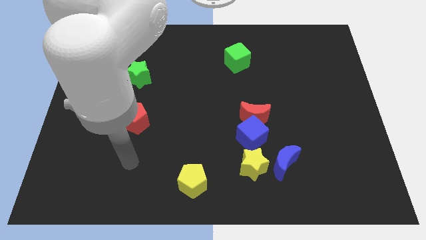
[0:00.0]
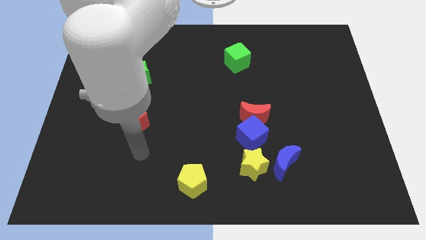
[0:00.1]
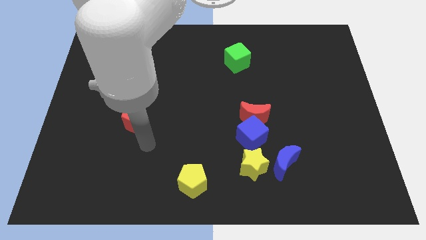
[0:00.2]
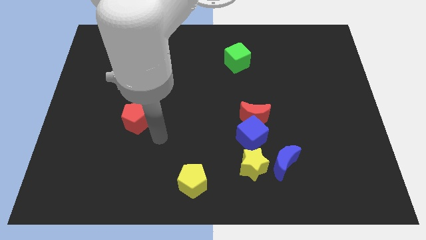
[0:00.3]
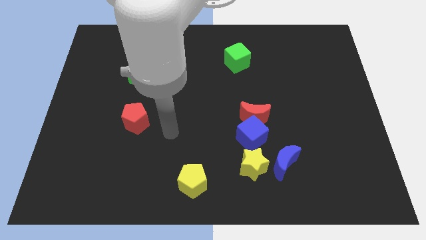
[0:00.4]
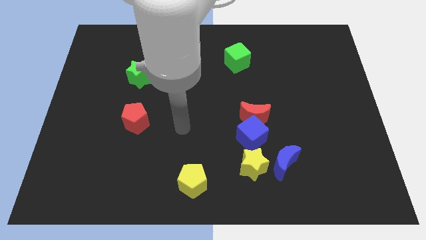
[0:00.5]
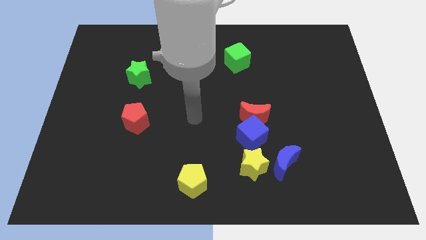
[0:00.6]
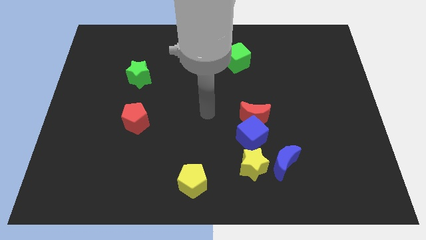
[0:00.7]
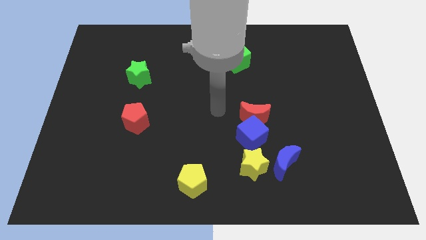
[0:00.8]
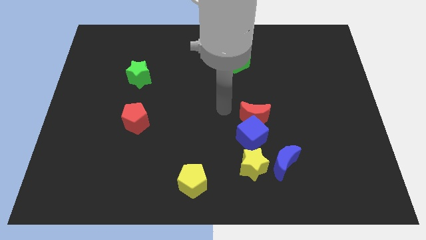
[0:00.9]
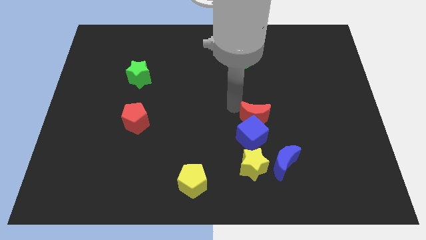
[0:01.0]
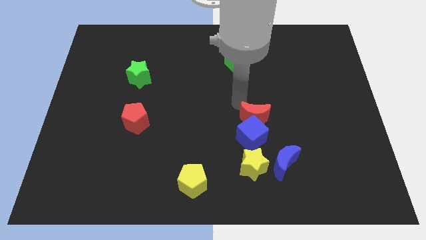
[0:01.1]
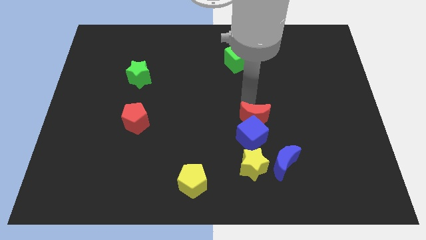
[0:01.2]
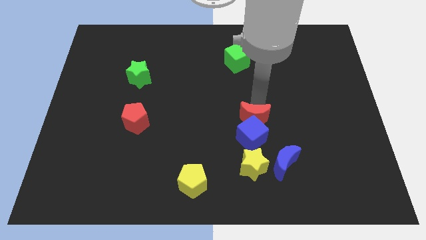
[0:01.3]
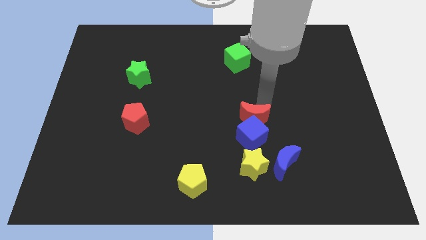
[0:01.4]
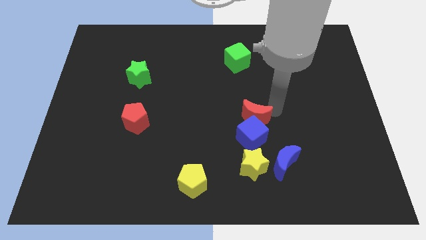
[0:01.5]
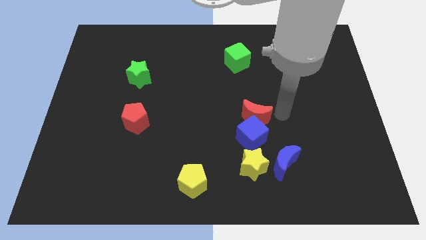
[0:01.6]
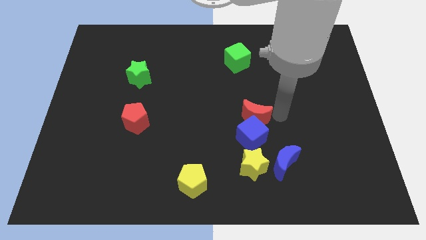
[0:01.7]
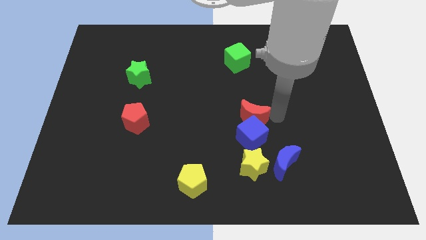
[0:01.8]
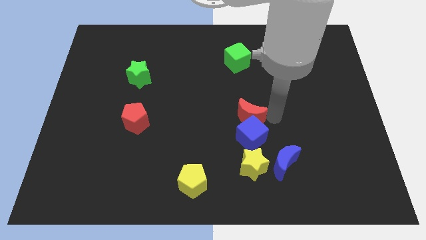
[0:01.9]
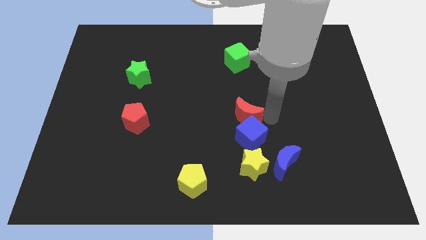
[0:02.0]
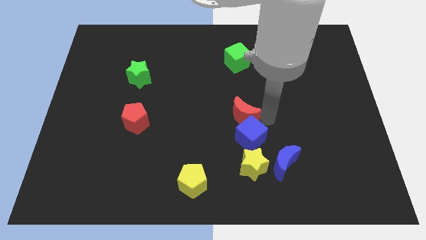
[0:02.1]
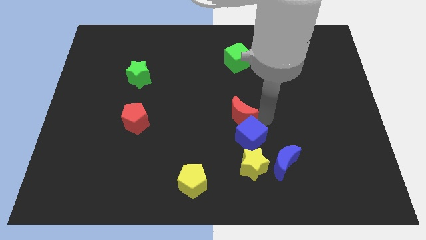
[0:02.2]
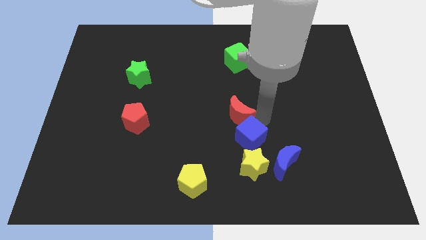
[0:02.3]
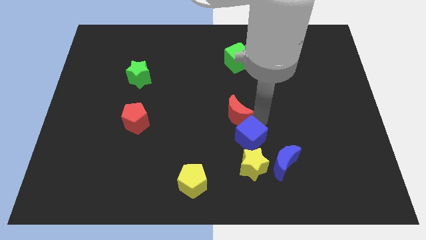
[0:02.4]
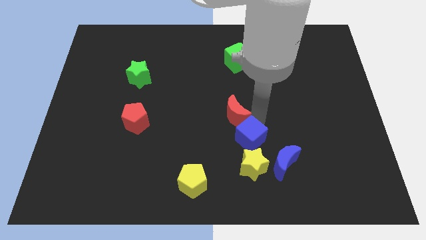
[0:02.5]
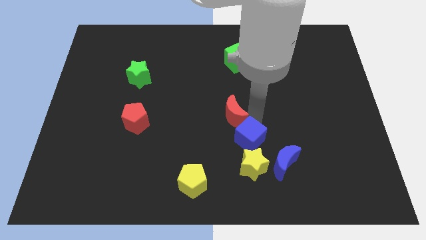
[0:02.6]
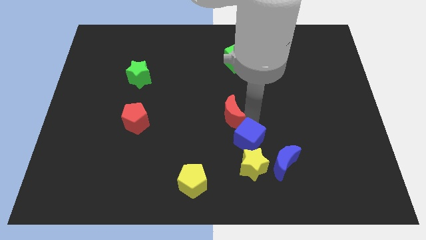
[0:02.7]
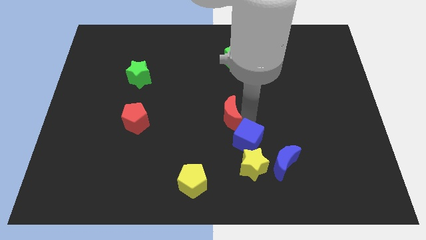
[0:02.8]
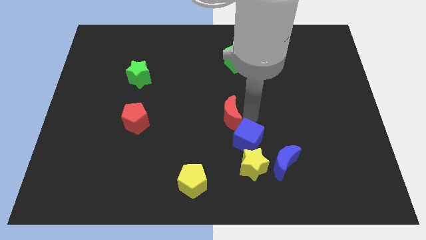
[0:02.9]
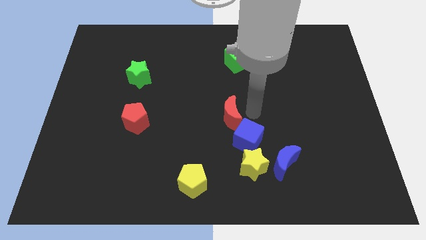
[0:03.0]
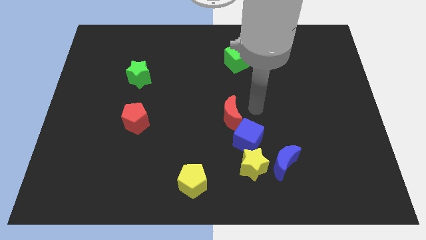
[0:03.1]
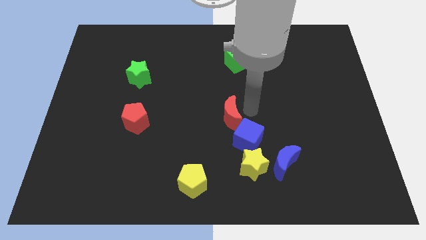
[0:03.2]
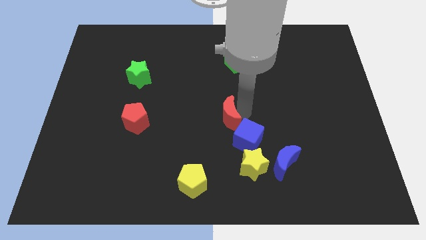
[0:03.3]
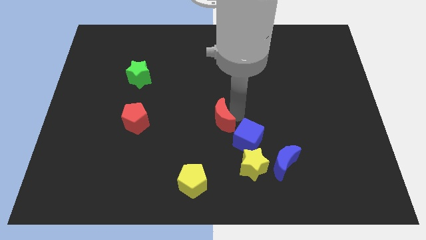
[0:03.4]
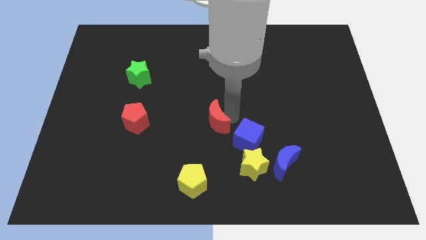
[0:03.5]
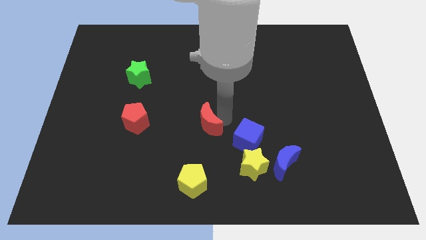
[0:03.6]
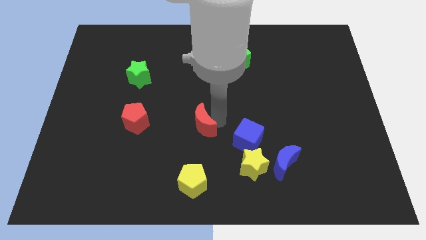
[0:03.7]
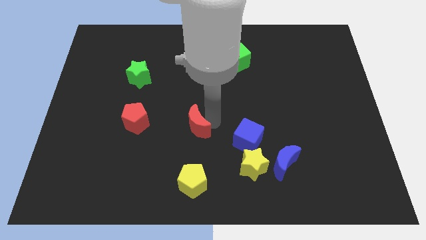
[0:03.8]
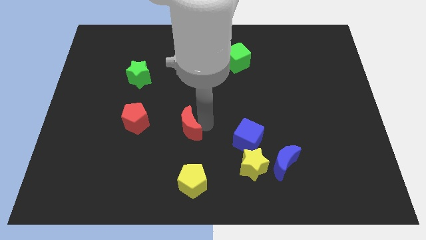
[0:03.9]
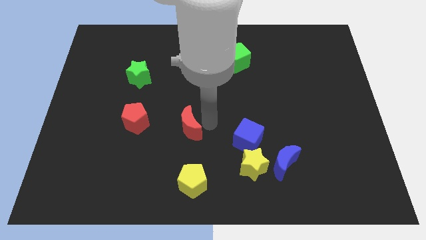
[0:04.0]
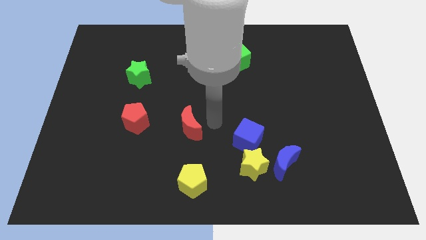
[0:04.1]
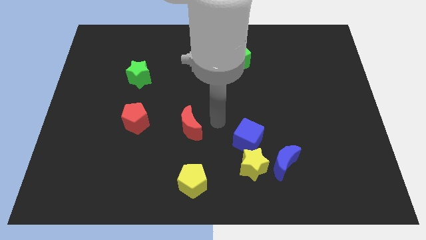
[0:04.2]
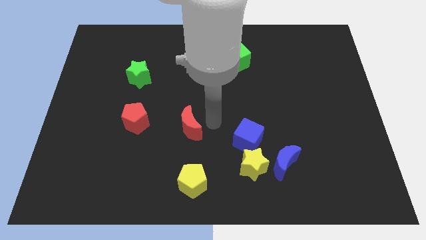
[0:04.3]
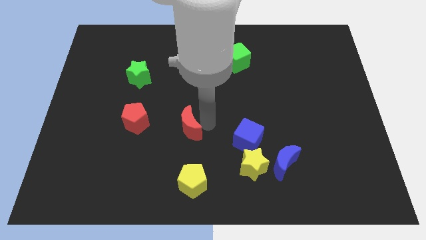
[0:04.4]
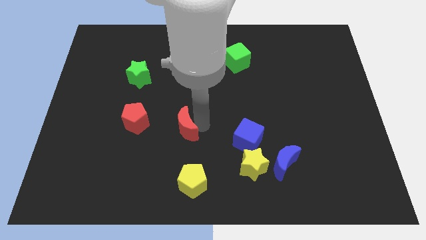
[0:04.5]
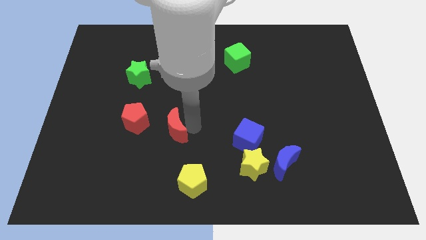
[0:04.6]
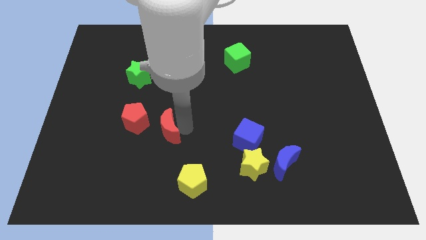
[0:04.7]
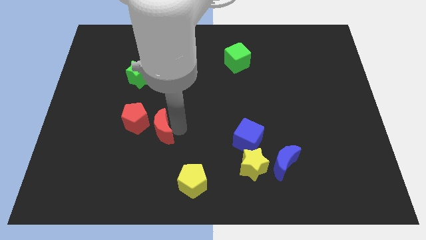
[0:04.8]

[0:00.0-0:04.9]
slide the red moon to the left

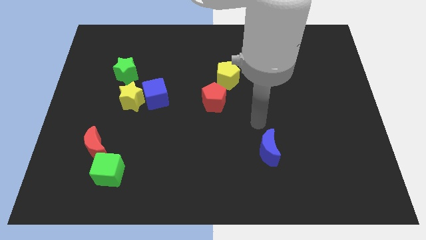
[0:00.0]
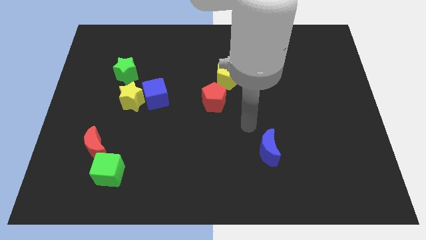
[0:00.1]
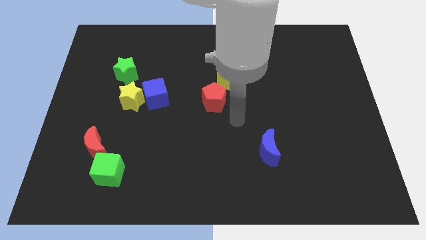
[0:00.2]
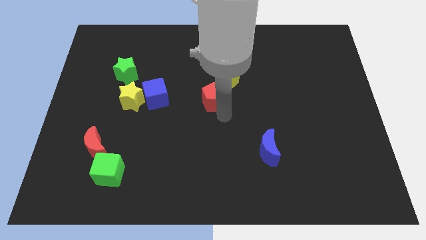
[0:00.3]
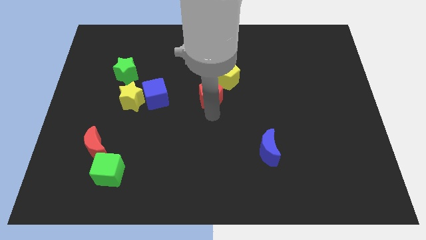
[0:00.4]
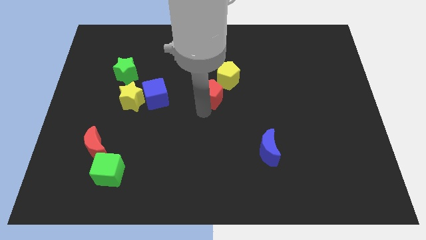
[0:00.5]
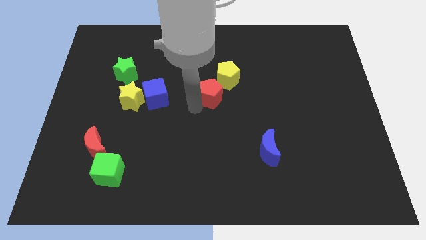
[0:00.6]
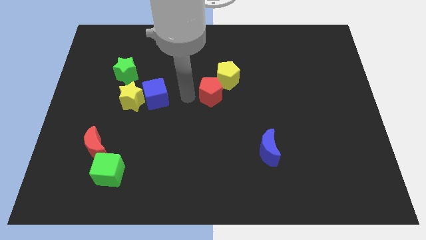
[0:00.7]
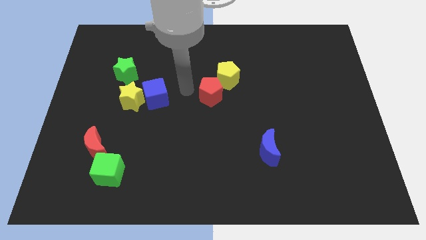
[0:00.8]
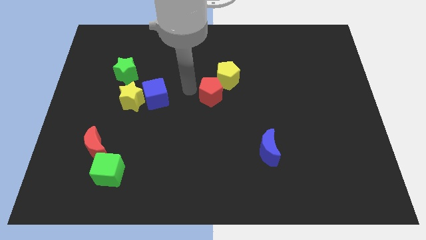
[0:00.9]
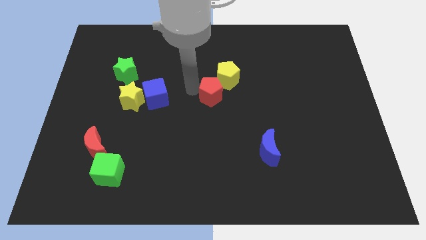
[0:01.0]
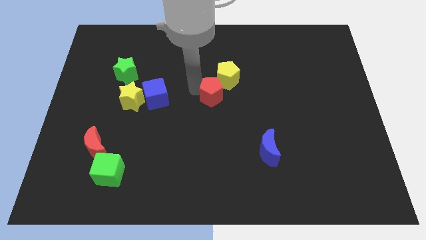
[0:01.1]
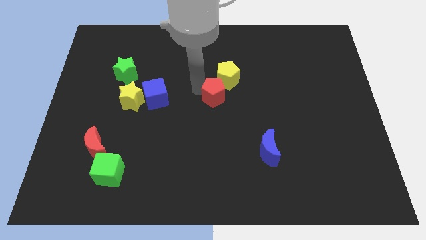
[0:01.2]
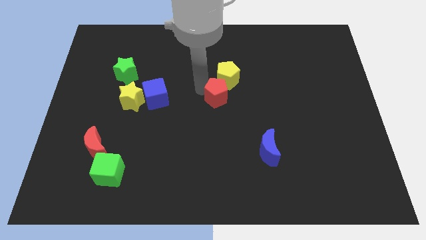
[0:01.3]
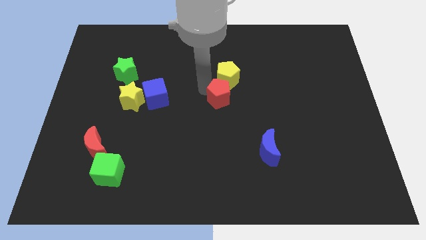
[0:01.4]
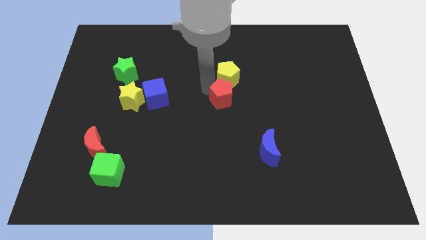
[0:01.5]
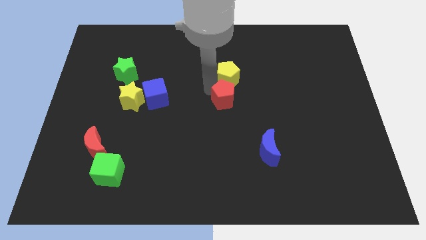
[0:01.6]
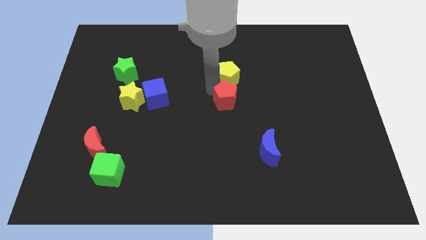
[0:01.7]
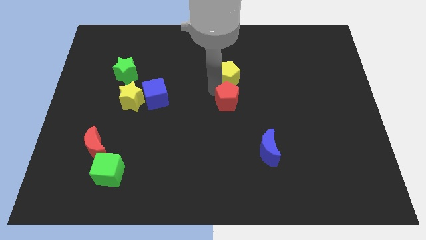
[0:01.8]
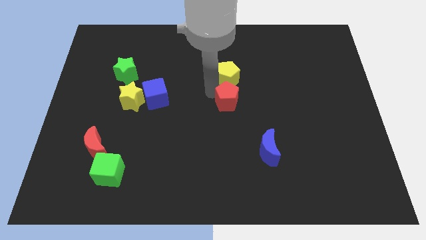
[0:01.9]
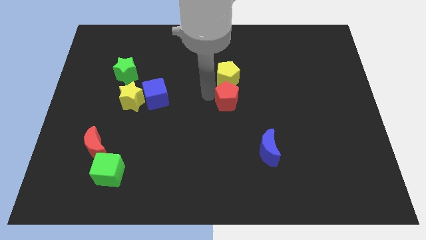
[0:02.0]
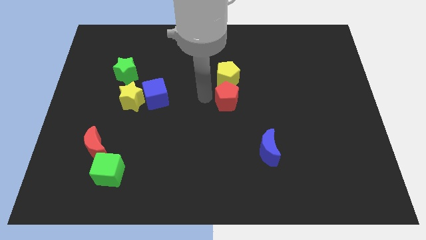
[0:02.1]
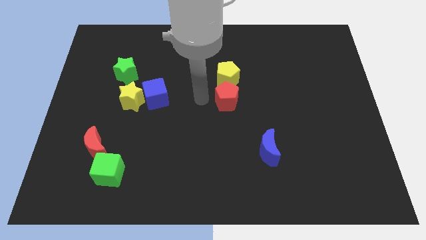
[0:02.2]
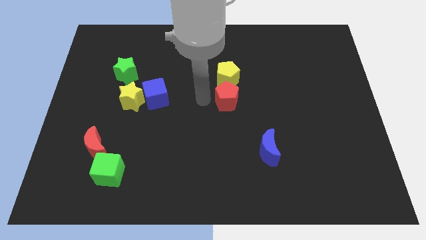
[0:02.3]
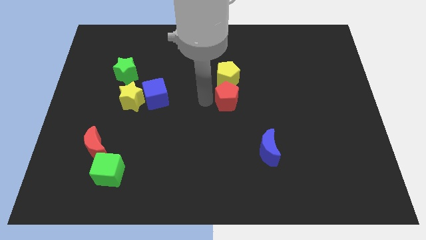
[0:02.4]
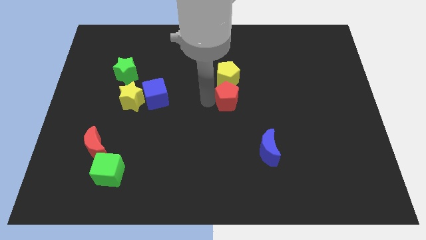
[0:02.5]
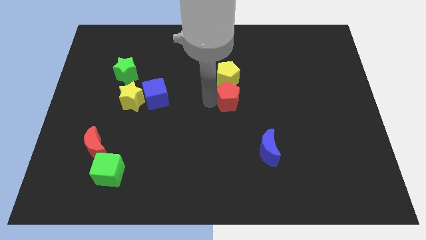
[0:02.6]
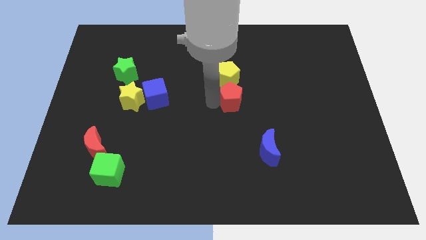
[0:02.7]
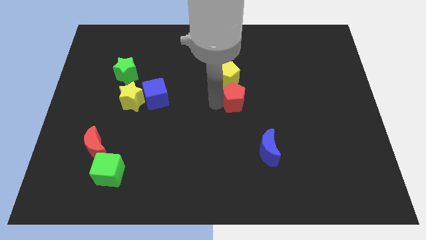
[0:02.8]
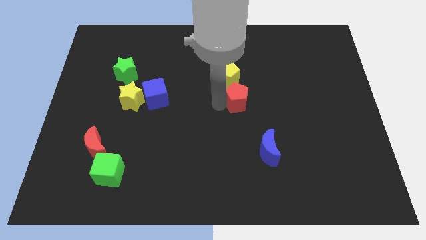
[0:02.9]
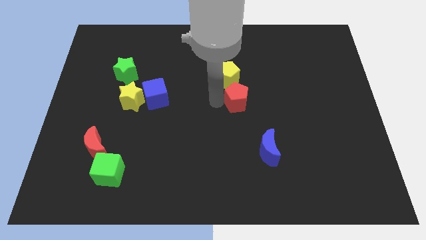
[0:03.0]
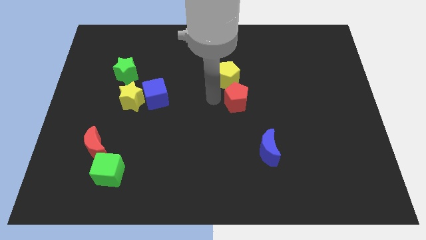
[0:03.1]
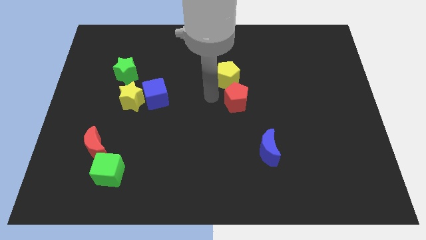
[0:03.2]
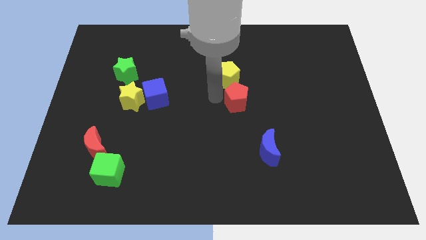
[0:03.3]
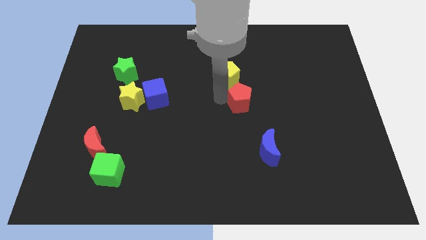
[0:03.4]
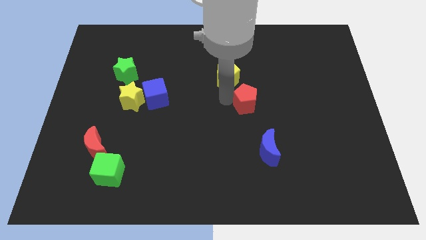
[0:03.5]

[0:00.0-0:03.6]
slide the red pentagon right slightly
